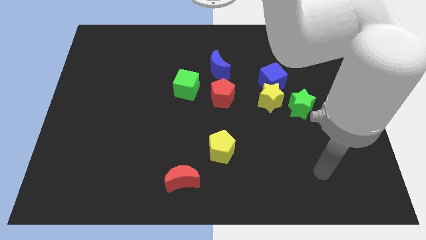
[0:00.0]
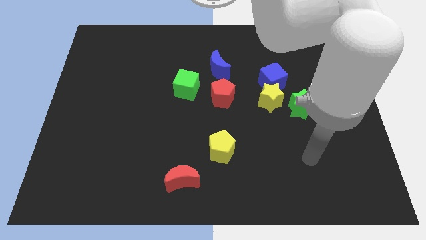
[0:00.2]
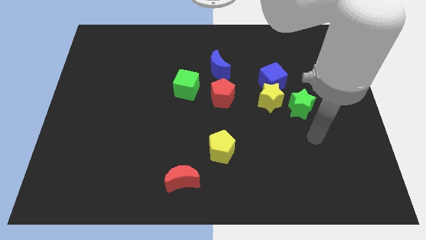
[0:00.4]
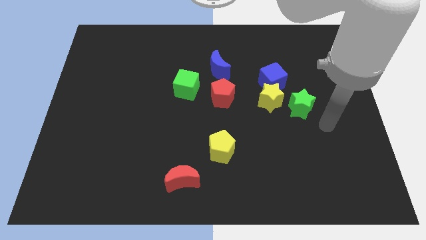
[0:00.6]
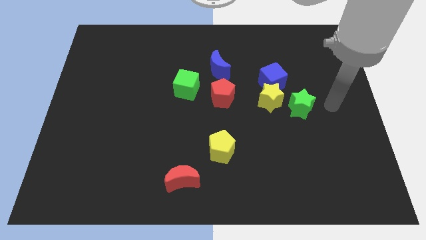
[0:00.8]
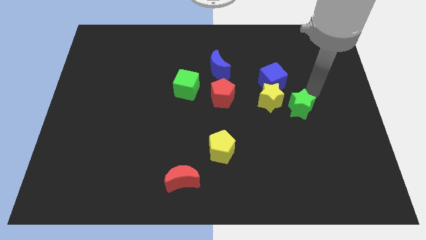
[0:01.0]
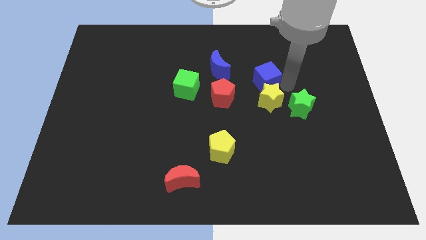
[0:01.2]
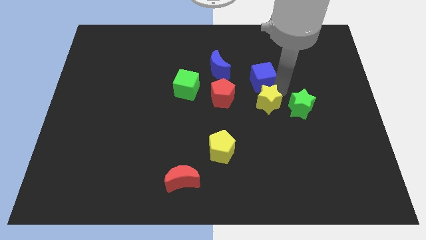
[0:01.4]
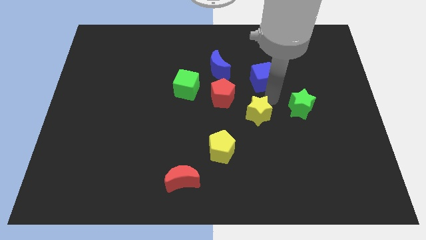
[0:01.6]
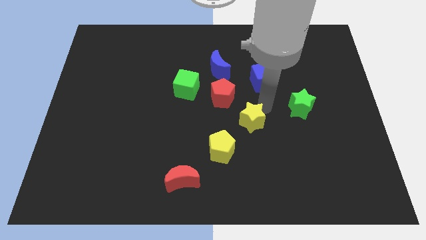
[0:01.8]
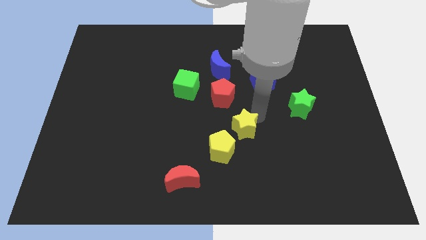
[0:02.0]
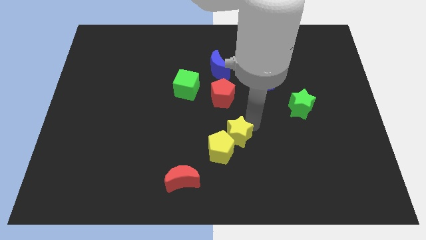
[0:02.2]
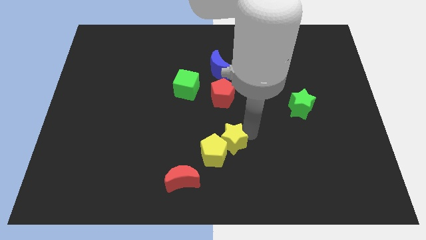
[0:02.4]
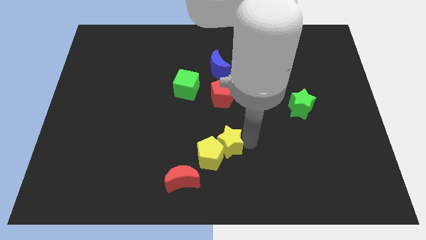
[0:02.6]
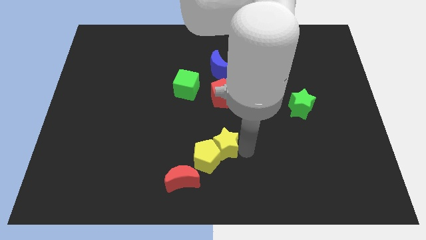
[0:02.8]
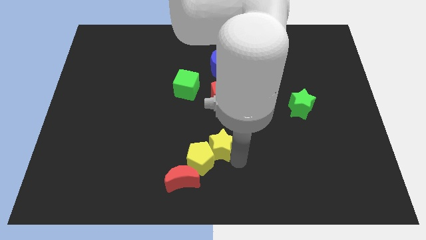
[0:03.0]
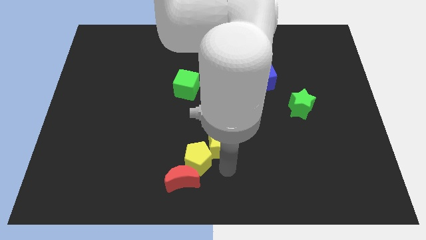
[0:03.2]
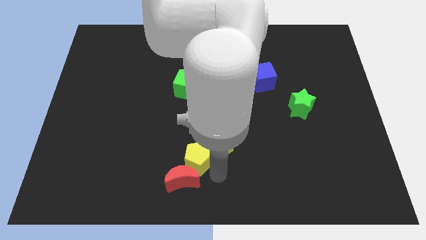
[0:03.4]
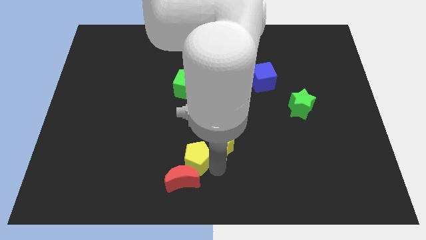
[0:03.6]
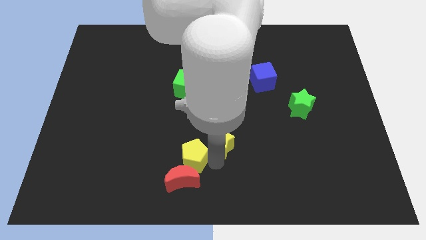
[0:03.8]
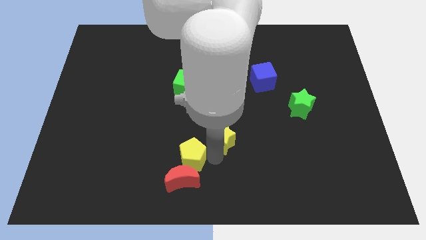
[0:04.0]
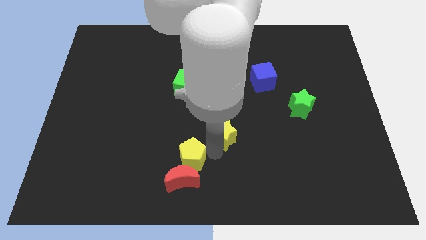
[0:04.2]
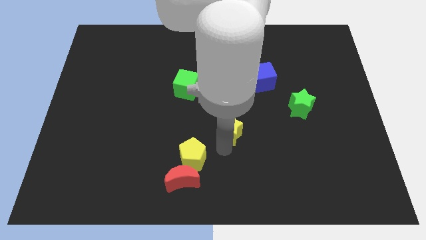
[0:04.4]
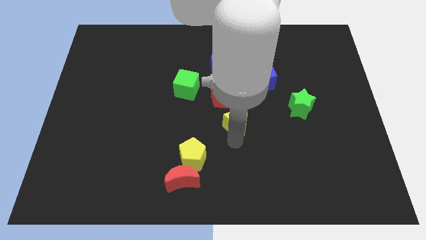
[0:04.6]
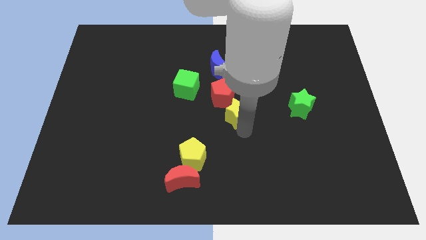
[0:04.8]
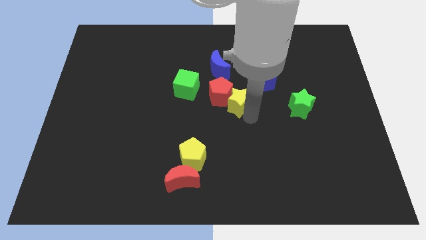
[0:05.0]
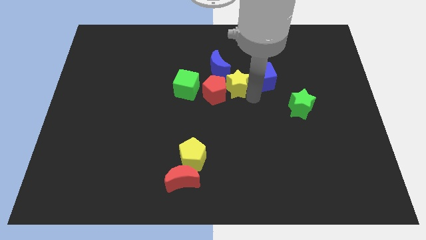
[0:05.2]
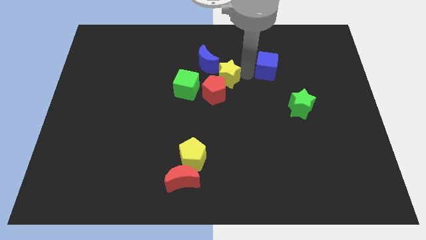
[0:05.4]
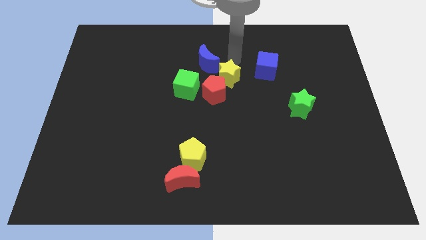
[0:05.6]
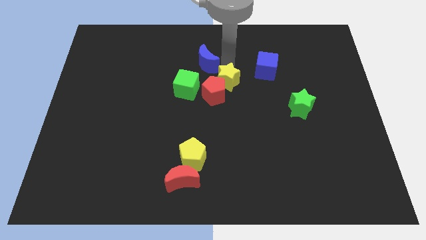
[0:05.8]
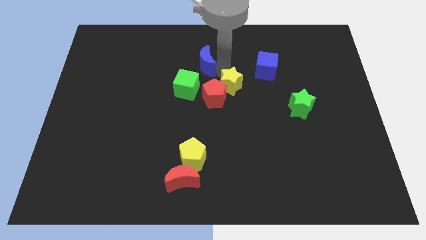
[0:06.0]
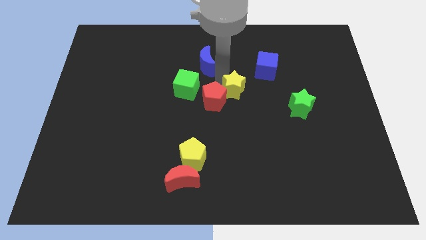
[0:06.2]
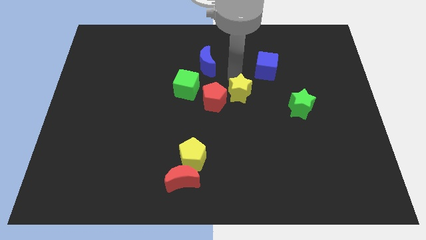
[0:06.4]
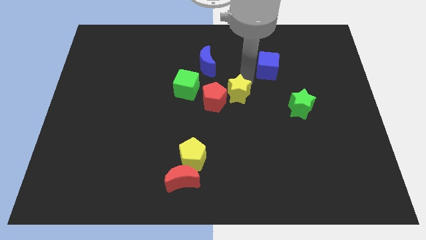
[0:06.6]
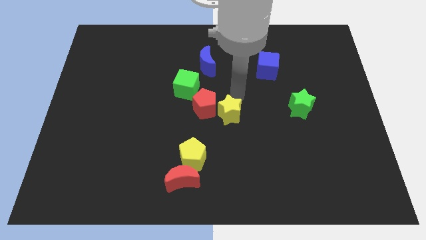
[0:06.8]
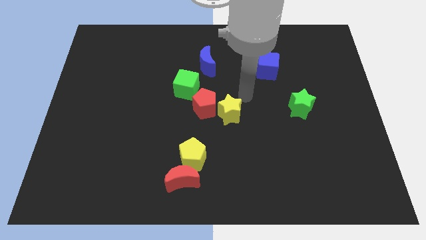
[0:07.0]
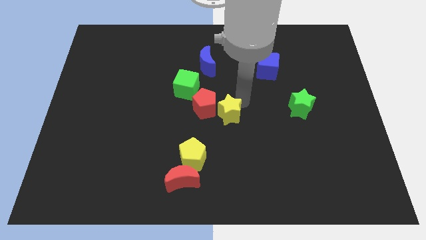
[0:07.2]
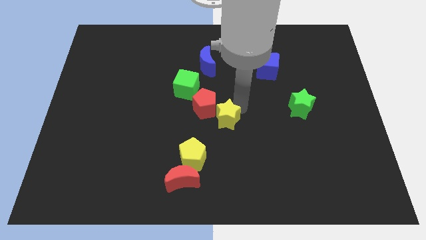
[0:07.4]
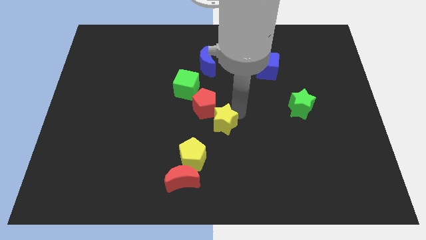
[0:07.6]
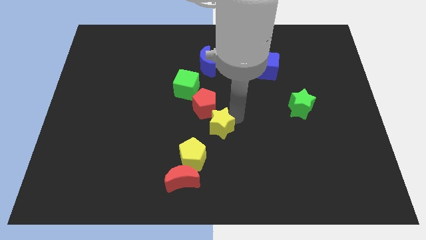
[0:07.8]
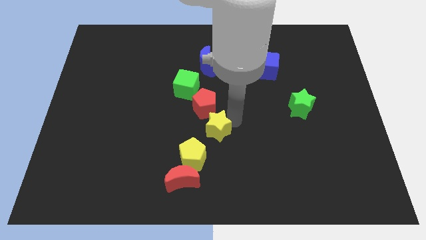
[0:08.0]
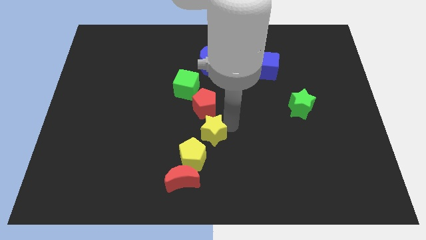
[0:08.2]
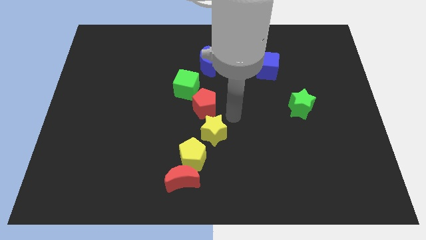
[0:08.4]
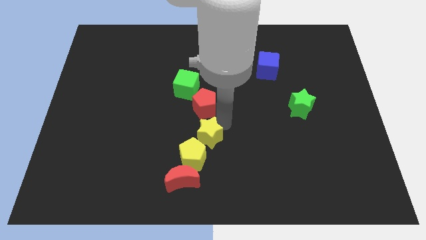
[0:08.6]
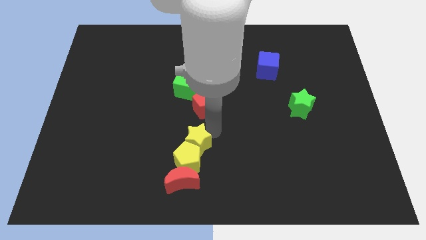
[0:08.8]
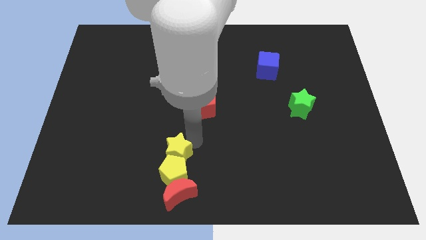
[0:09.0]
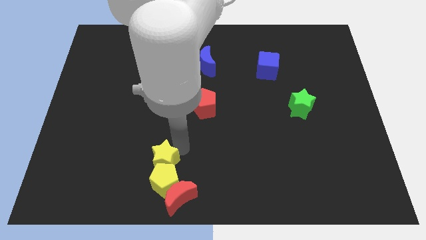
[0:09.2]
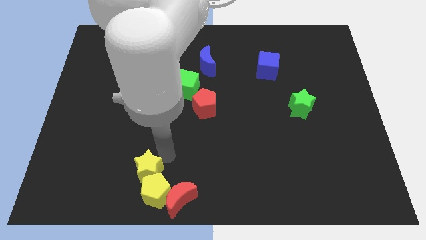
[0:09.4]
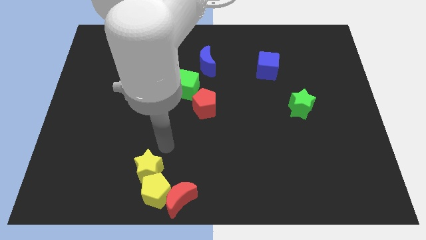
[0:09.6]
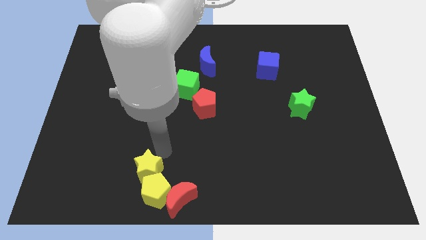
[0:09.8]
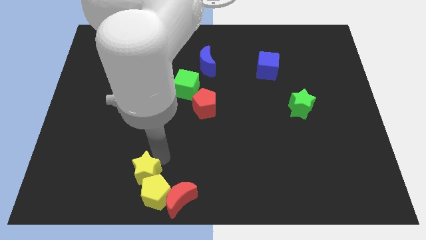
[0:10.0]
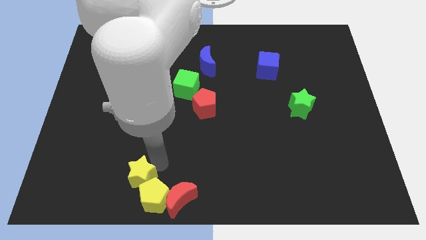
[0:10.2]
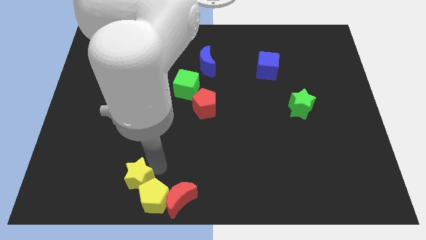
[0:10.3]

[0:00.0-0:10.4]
push the yellow star to the left side of the red moon

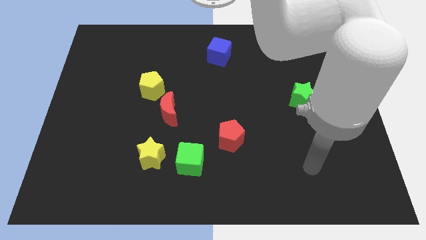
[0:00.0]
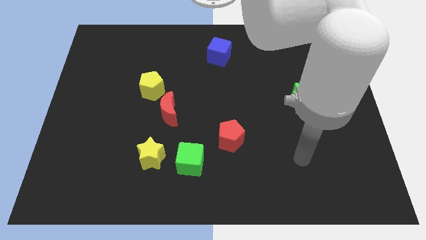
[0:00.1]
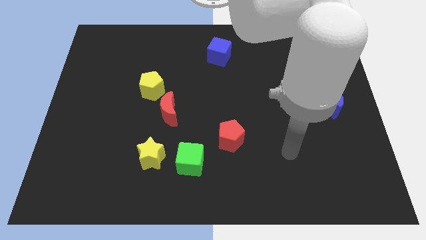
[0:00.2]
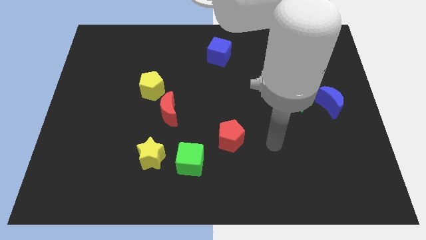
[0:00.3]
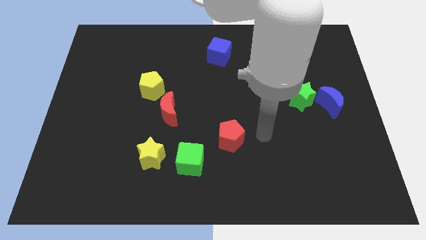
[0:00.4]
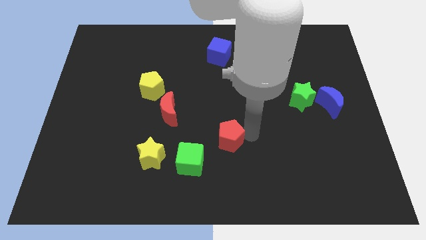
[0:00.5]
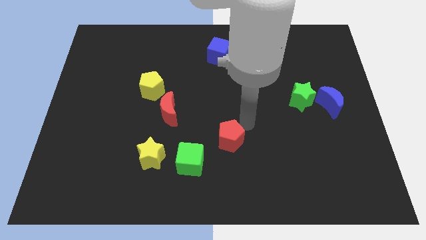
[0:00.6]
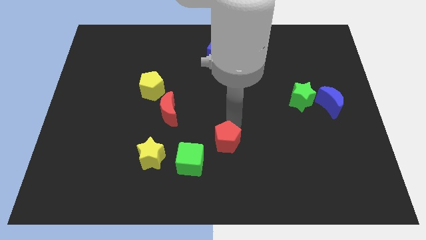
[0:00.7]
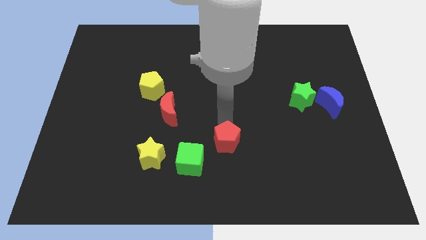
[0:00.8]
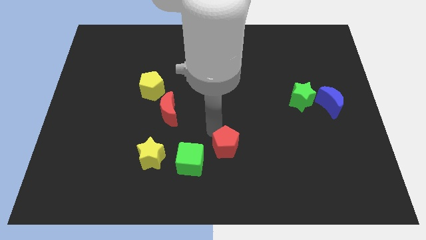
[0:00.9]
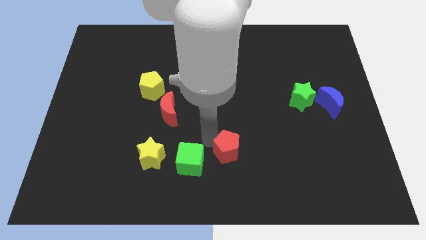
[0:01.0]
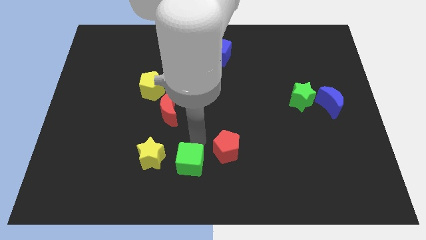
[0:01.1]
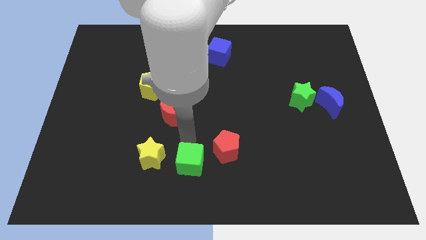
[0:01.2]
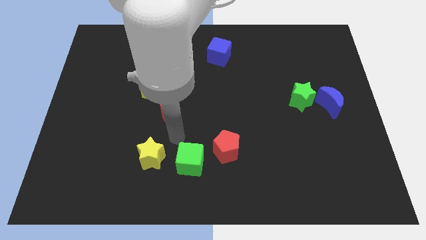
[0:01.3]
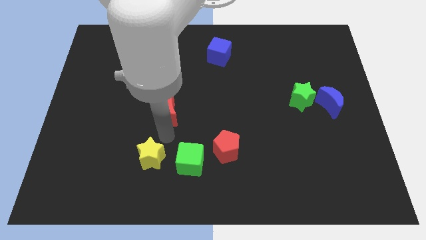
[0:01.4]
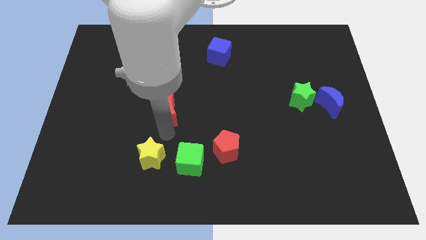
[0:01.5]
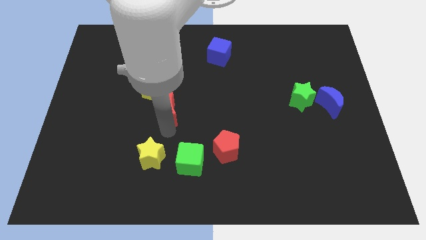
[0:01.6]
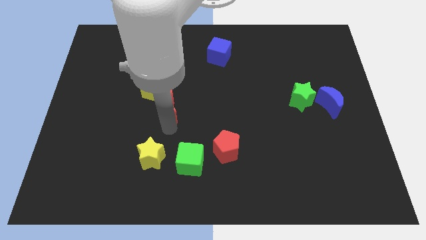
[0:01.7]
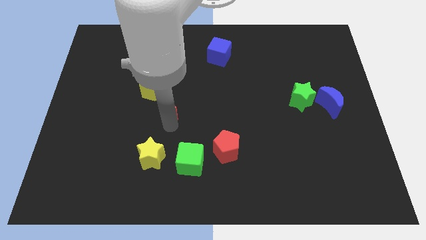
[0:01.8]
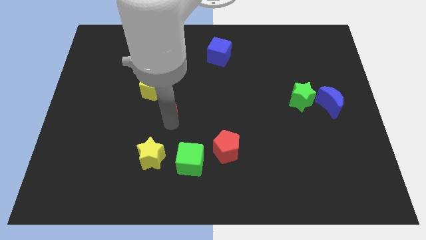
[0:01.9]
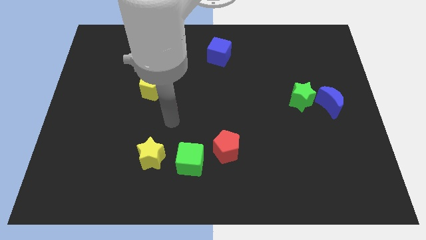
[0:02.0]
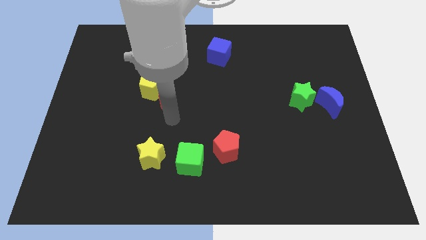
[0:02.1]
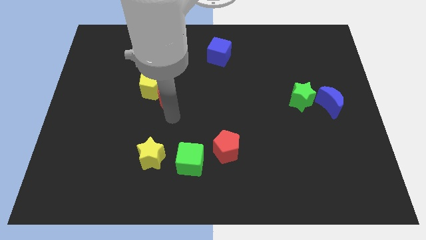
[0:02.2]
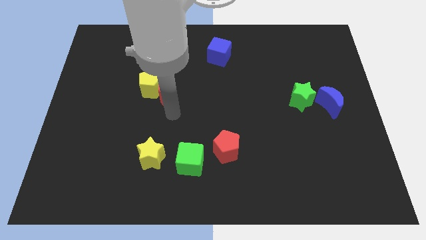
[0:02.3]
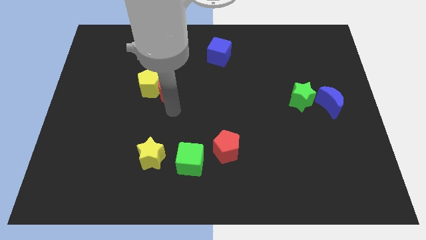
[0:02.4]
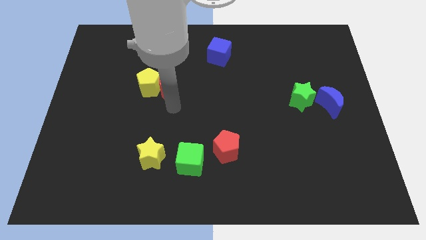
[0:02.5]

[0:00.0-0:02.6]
push the red moon diagonally up and to the right of the yellow pentagon
